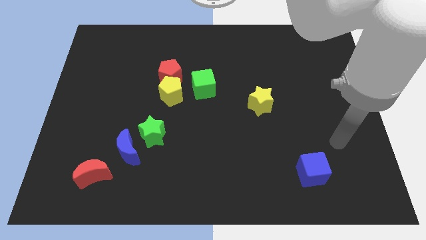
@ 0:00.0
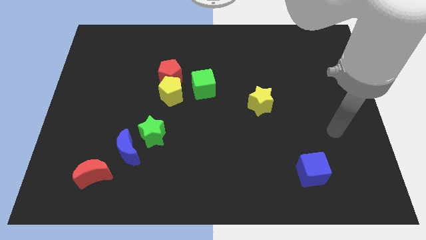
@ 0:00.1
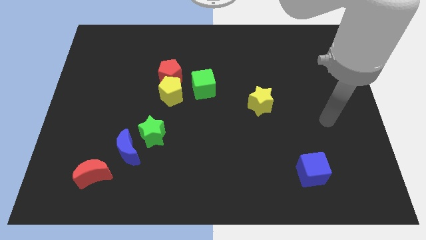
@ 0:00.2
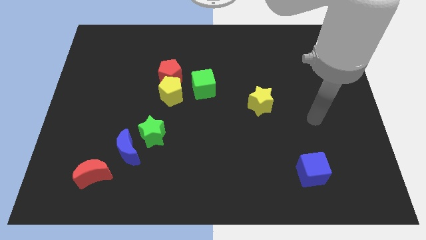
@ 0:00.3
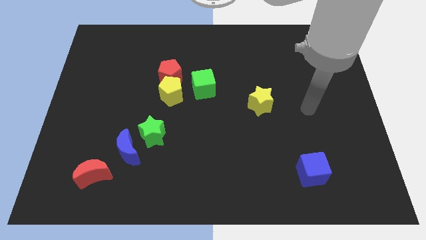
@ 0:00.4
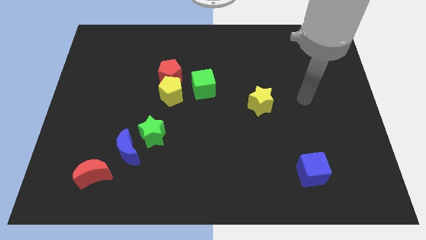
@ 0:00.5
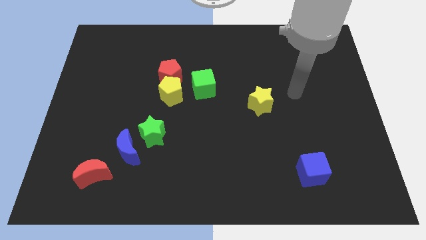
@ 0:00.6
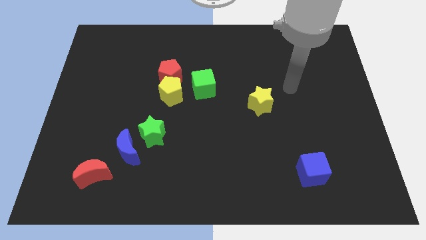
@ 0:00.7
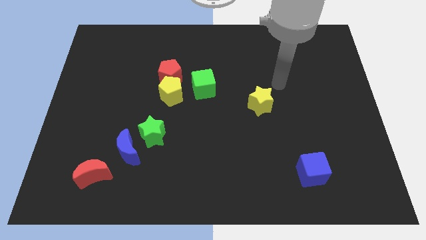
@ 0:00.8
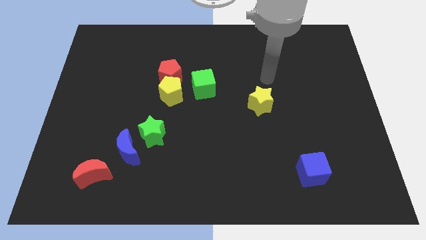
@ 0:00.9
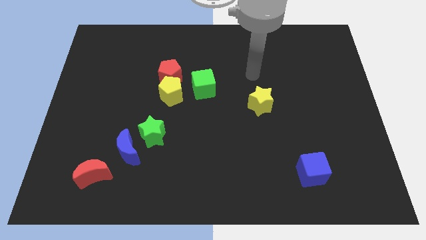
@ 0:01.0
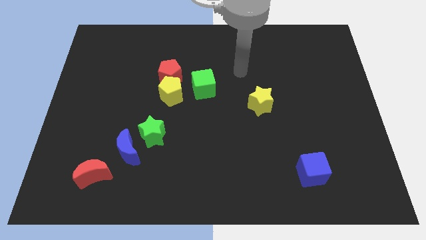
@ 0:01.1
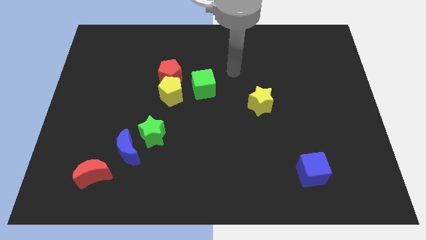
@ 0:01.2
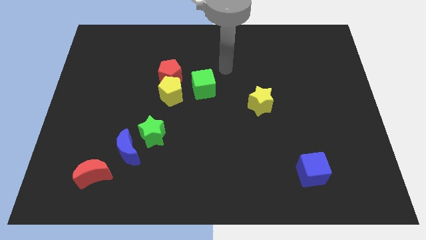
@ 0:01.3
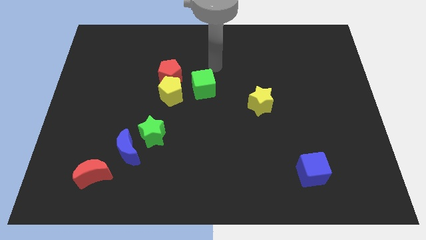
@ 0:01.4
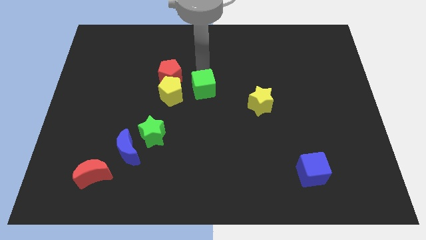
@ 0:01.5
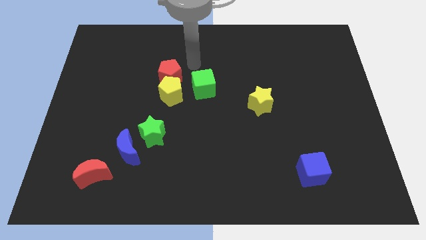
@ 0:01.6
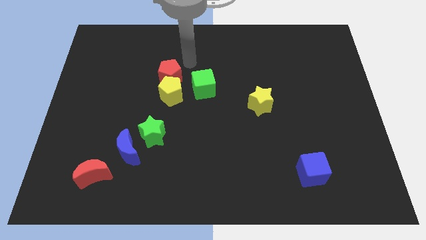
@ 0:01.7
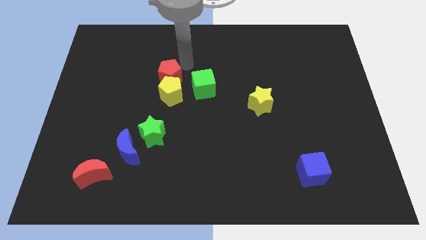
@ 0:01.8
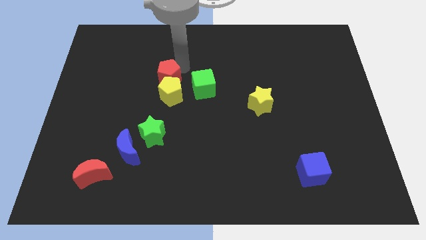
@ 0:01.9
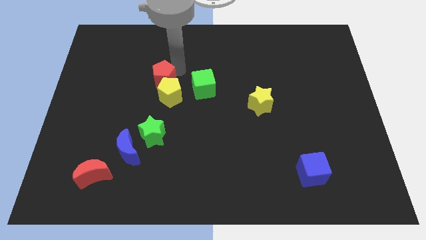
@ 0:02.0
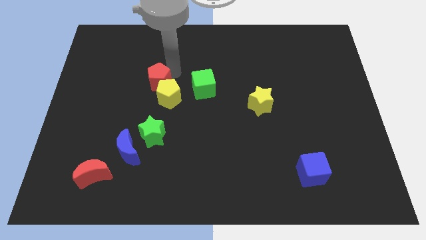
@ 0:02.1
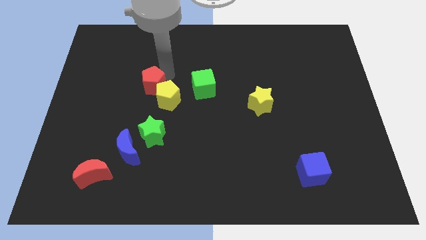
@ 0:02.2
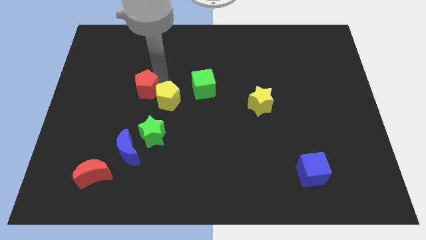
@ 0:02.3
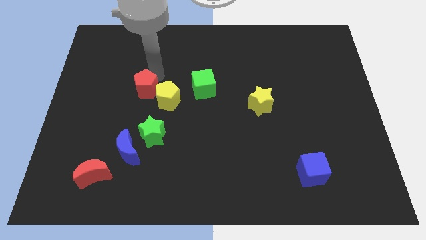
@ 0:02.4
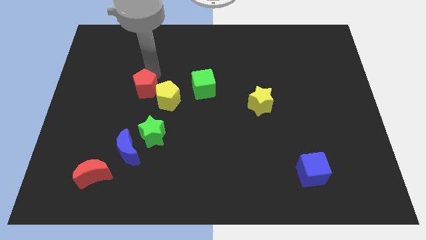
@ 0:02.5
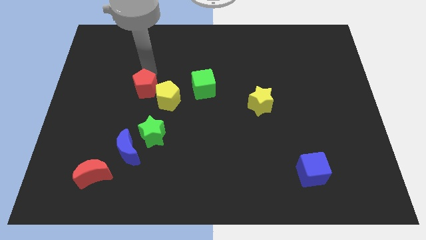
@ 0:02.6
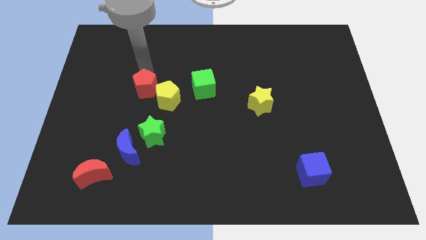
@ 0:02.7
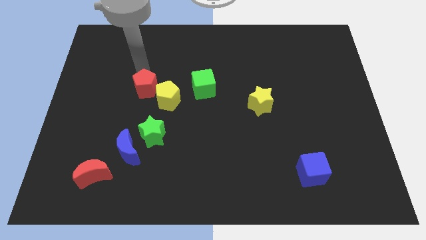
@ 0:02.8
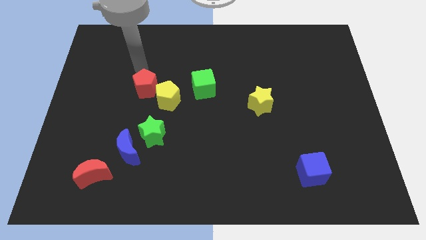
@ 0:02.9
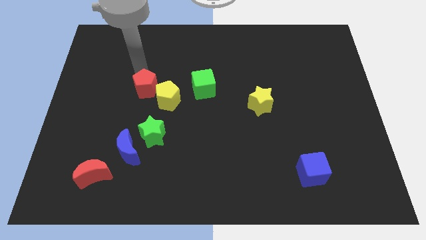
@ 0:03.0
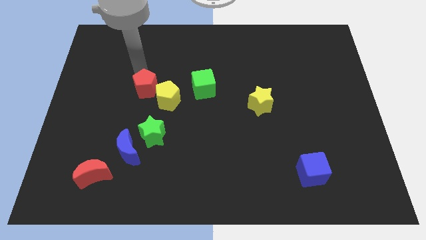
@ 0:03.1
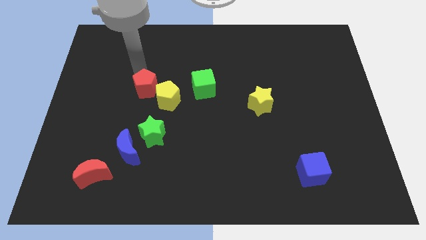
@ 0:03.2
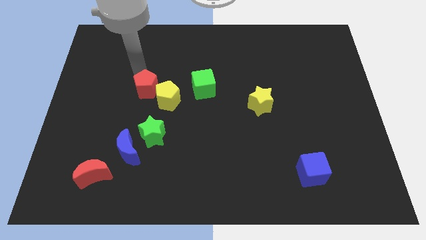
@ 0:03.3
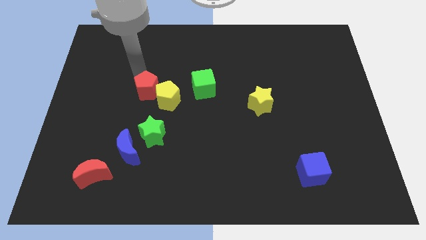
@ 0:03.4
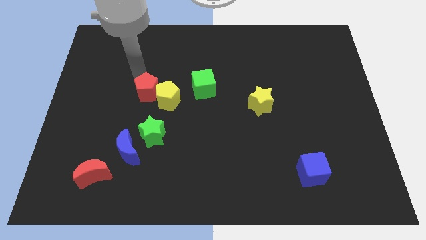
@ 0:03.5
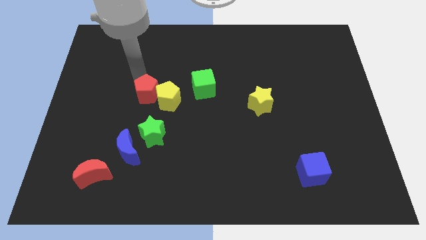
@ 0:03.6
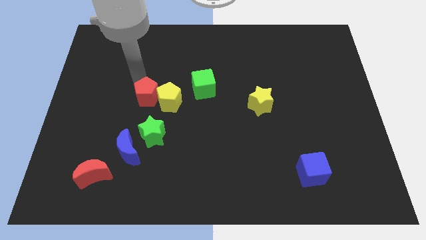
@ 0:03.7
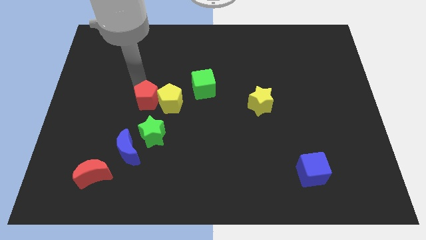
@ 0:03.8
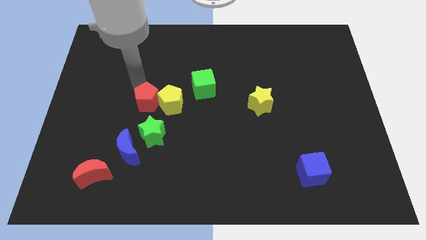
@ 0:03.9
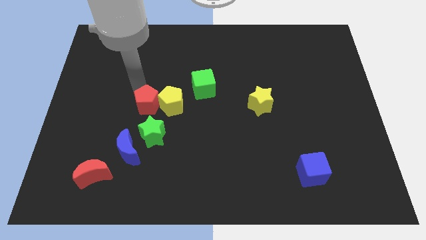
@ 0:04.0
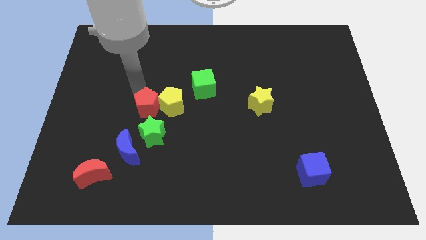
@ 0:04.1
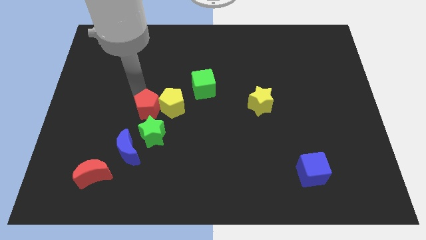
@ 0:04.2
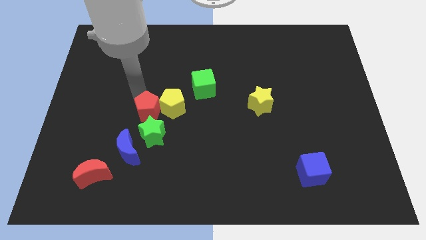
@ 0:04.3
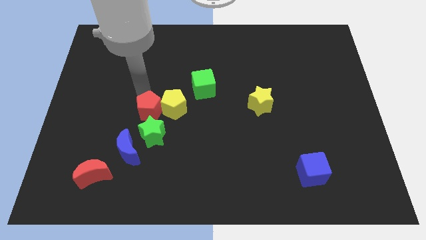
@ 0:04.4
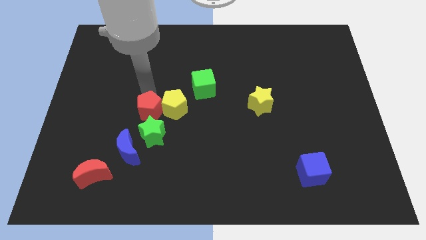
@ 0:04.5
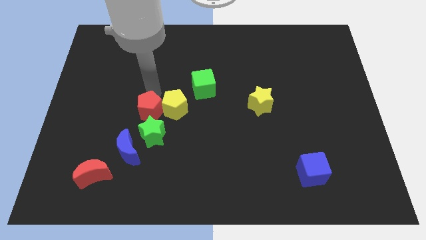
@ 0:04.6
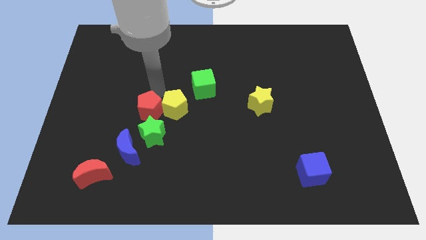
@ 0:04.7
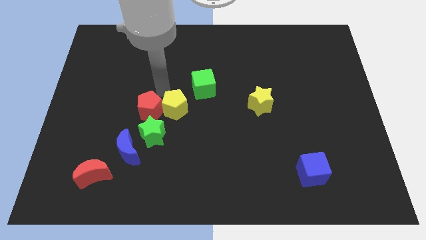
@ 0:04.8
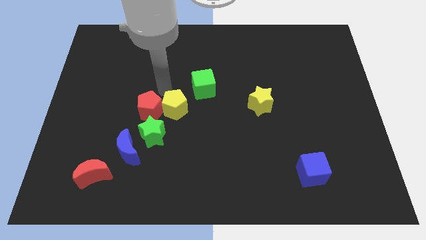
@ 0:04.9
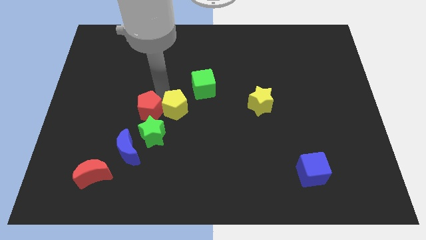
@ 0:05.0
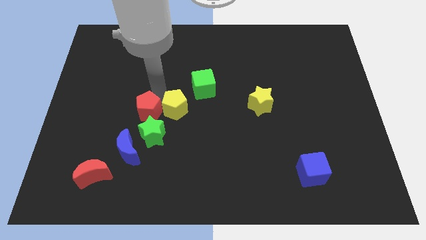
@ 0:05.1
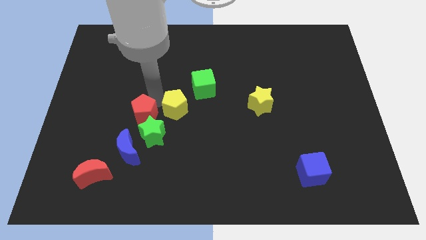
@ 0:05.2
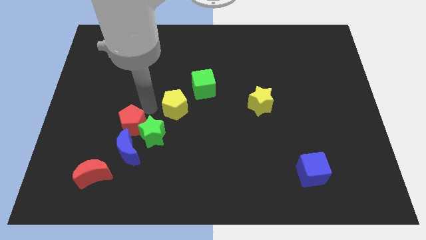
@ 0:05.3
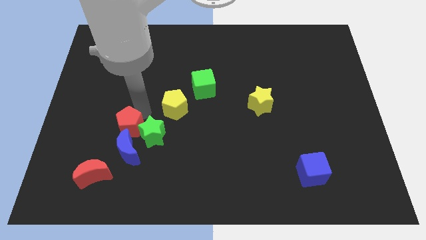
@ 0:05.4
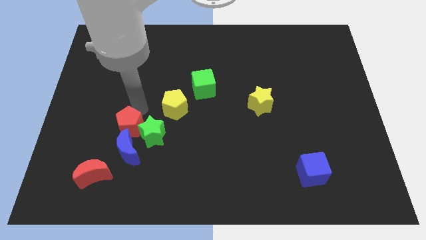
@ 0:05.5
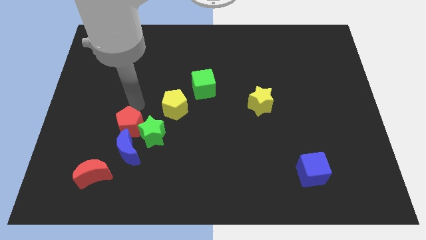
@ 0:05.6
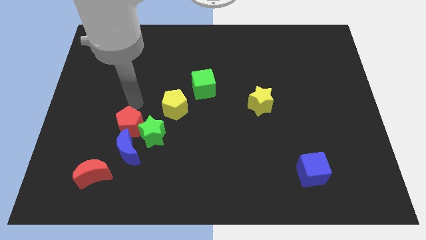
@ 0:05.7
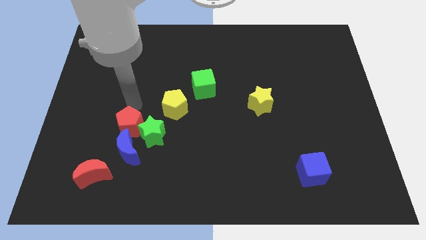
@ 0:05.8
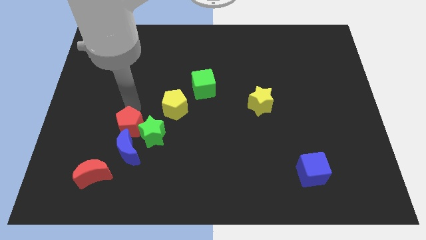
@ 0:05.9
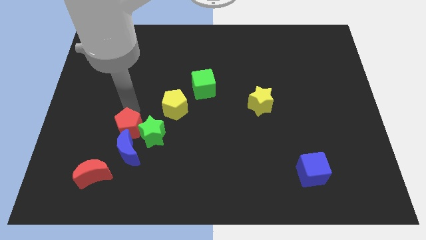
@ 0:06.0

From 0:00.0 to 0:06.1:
push the red pentagon close to the blue moon

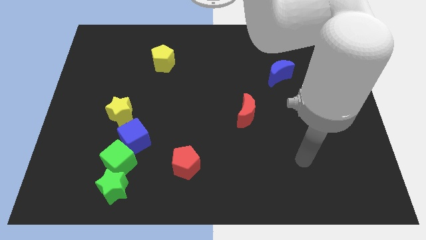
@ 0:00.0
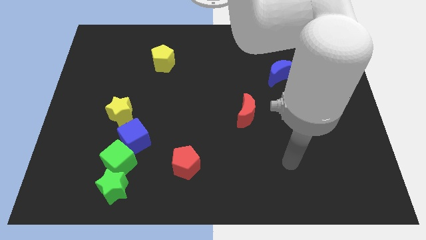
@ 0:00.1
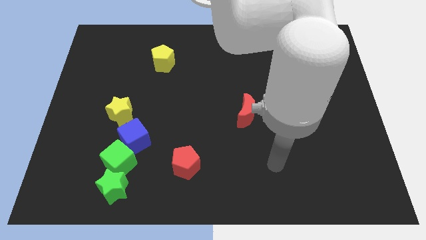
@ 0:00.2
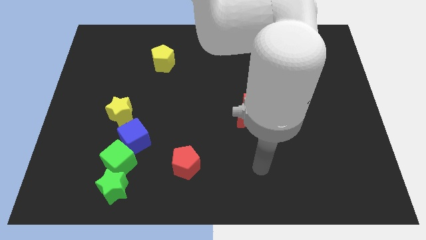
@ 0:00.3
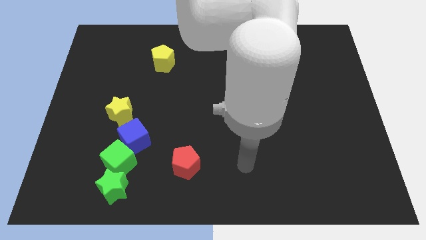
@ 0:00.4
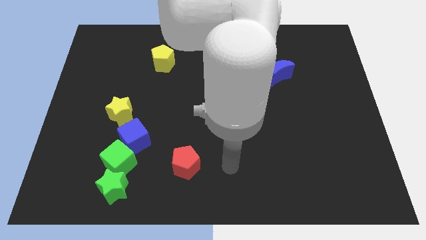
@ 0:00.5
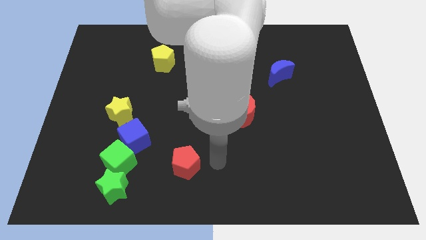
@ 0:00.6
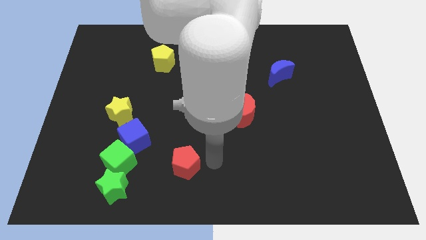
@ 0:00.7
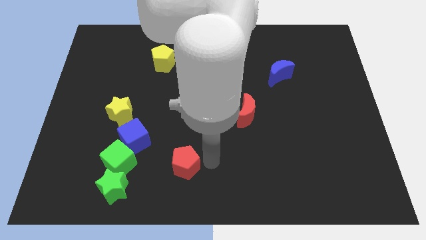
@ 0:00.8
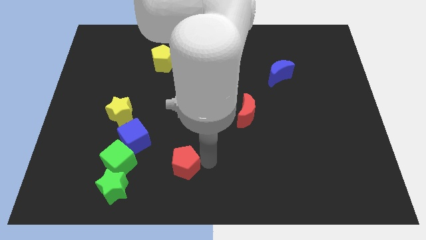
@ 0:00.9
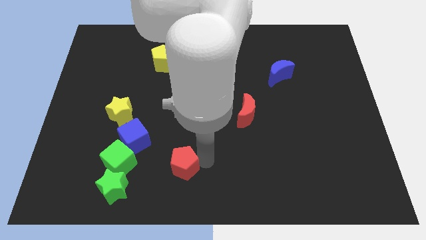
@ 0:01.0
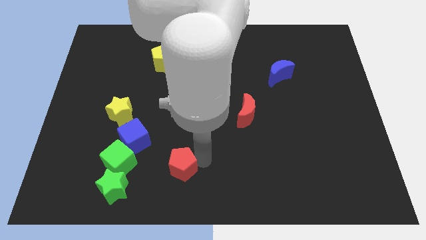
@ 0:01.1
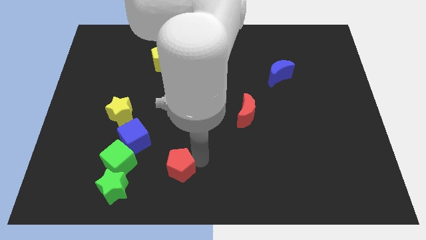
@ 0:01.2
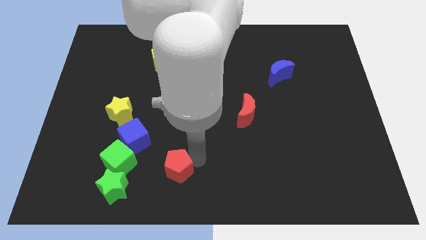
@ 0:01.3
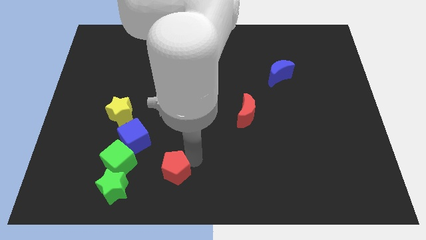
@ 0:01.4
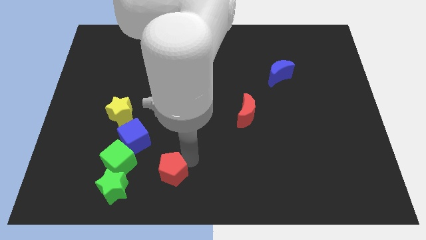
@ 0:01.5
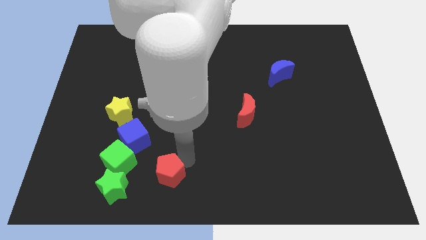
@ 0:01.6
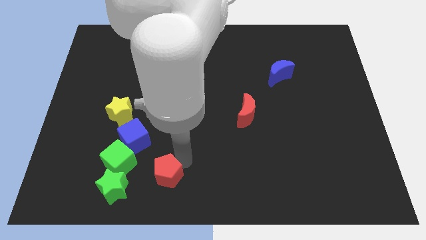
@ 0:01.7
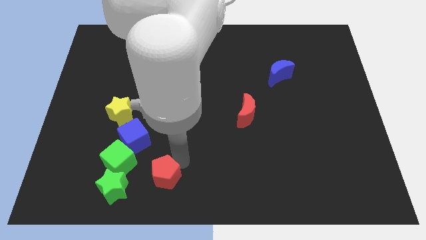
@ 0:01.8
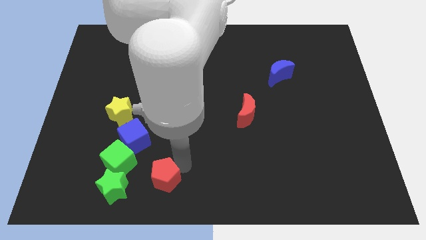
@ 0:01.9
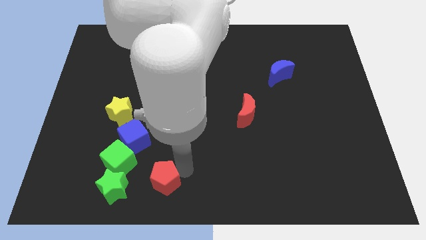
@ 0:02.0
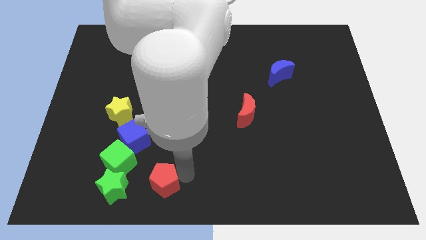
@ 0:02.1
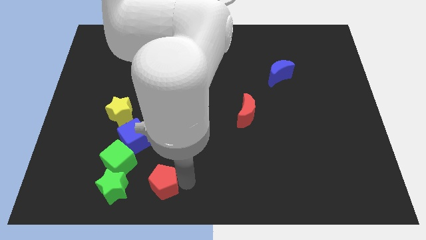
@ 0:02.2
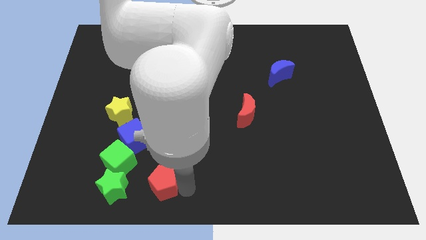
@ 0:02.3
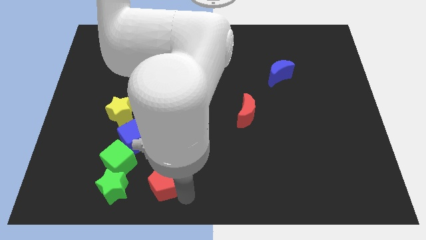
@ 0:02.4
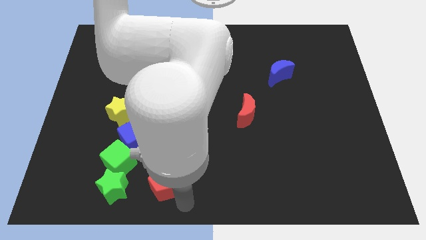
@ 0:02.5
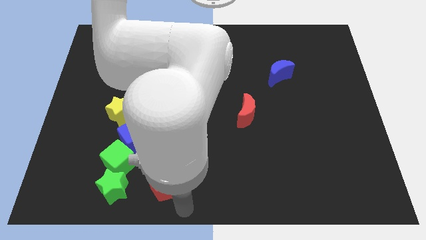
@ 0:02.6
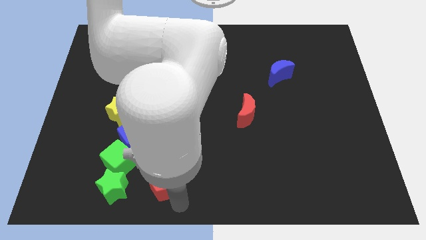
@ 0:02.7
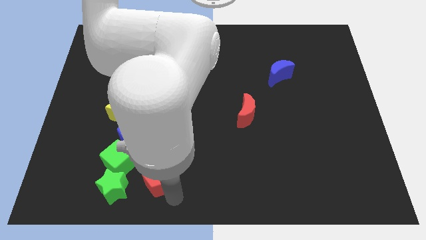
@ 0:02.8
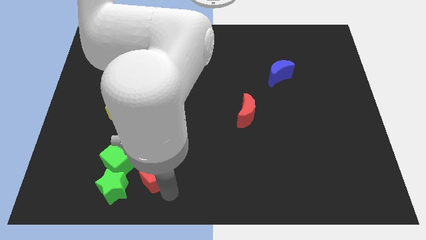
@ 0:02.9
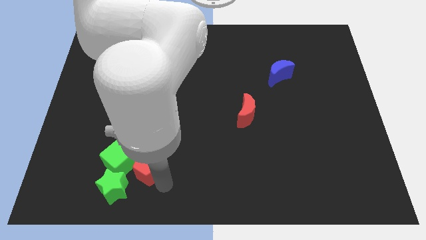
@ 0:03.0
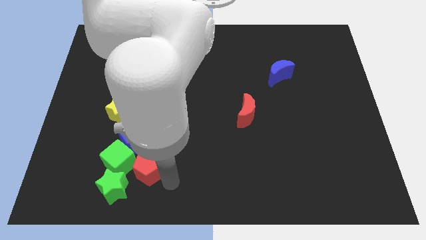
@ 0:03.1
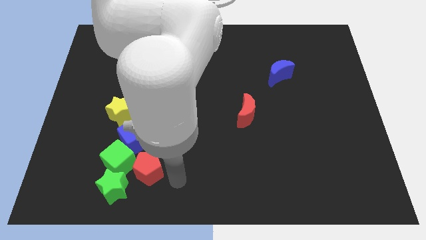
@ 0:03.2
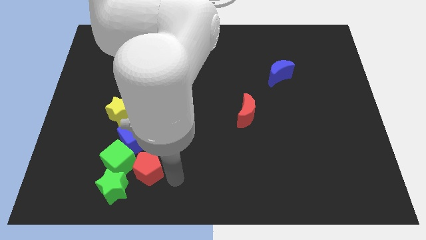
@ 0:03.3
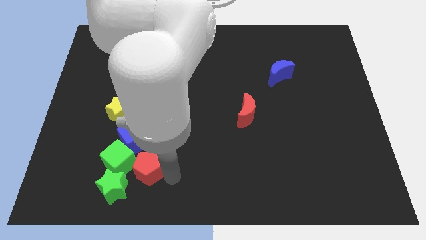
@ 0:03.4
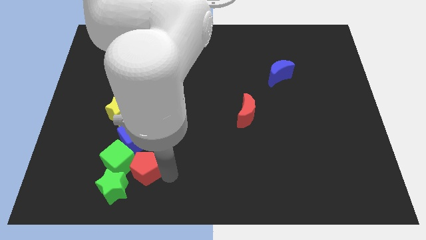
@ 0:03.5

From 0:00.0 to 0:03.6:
slide the red pentagon towards the green cube
